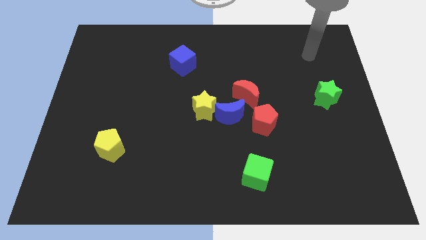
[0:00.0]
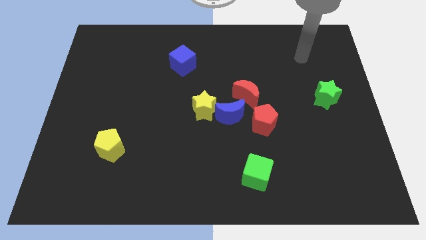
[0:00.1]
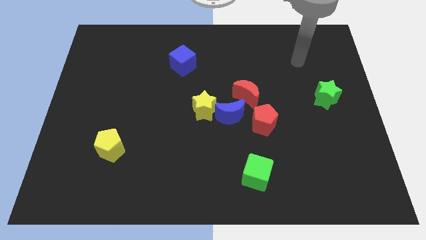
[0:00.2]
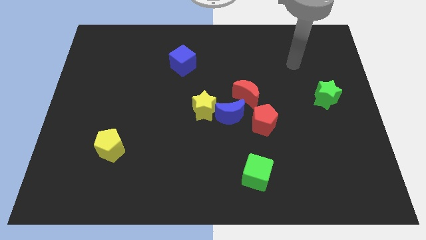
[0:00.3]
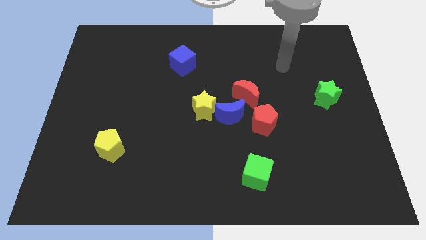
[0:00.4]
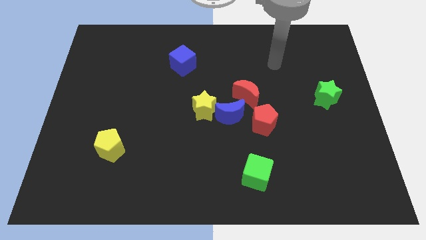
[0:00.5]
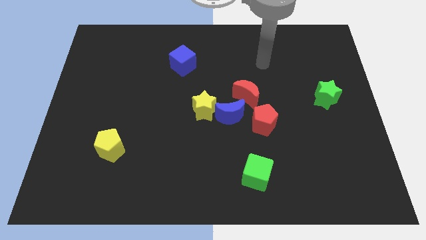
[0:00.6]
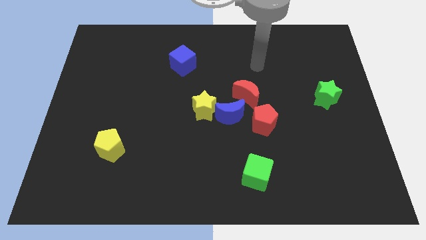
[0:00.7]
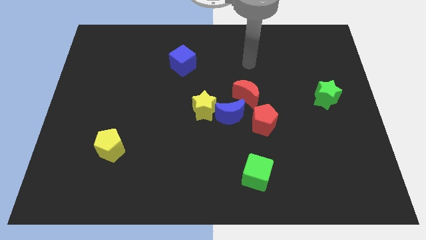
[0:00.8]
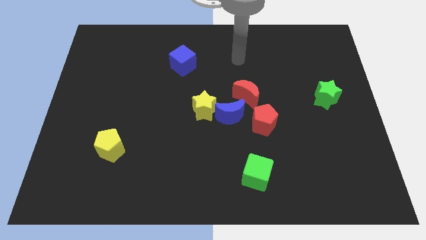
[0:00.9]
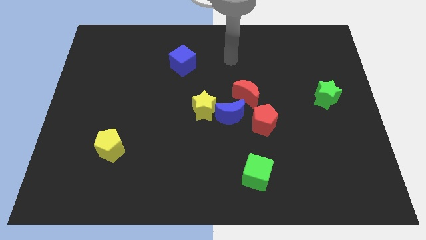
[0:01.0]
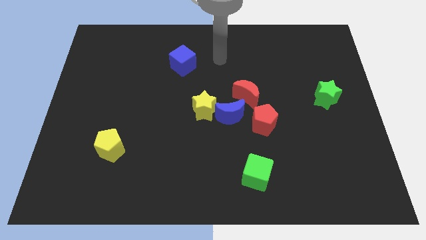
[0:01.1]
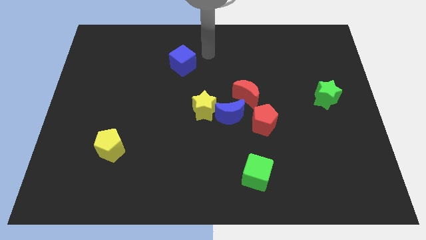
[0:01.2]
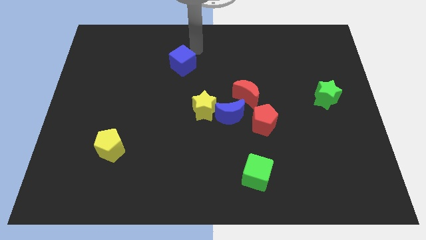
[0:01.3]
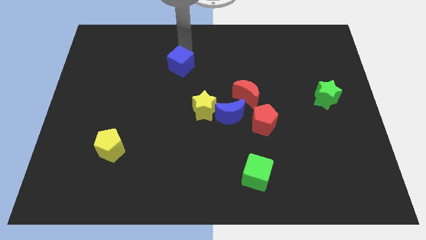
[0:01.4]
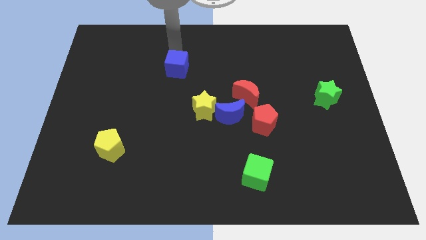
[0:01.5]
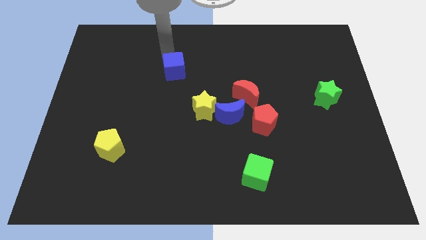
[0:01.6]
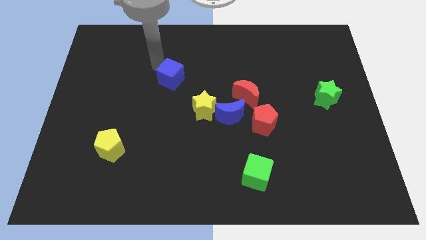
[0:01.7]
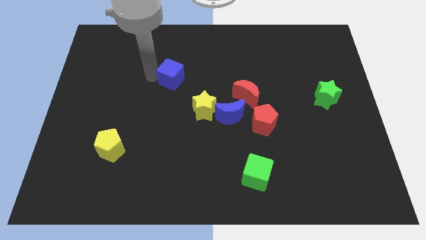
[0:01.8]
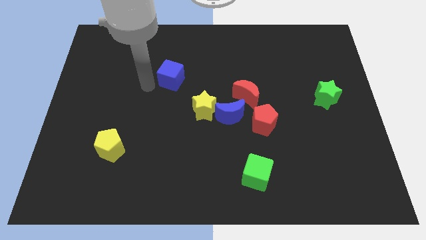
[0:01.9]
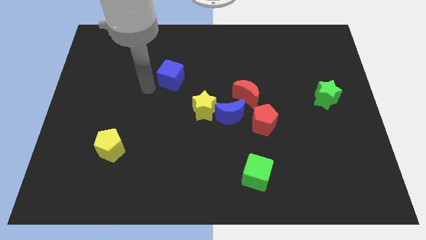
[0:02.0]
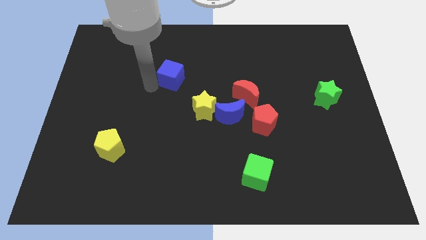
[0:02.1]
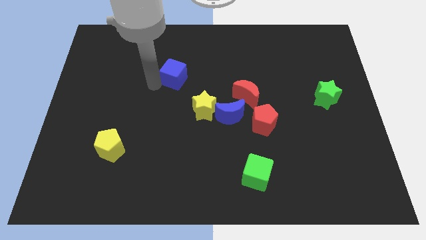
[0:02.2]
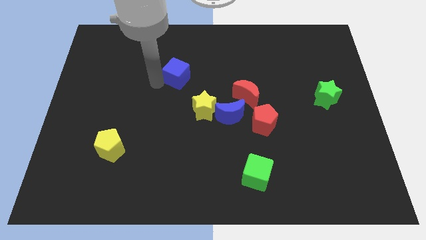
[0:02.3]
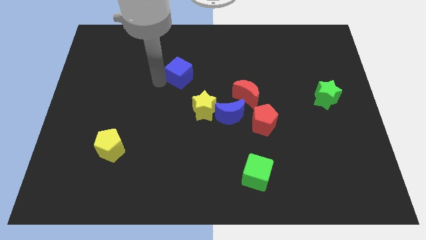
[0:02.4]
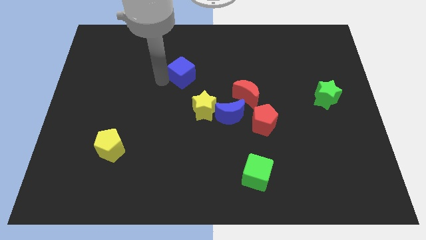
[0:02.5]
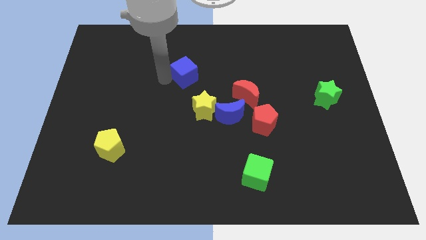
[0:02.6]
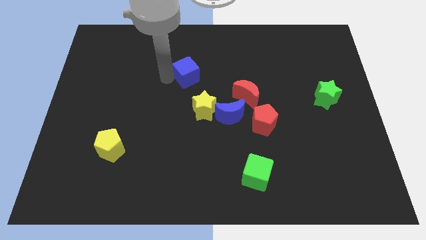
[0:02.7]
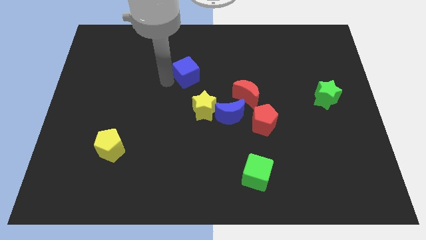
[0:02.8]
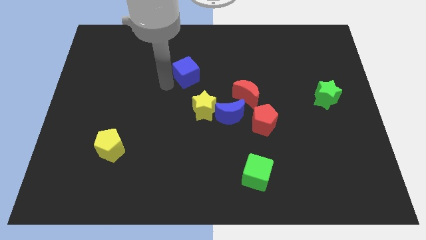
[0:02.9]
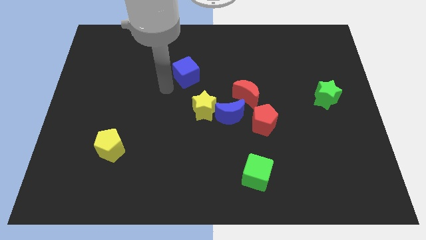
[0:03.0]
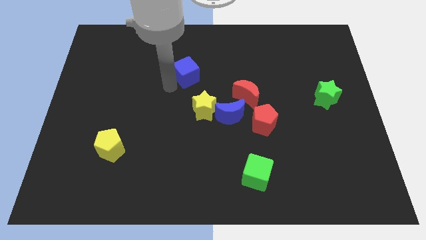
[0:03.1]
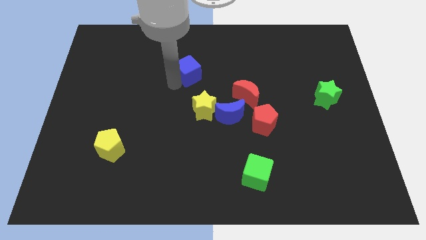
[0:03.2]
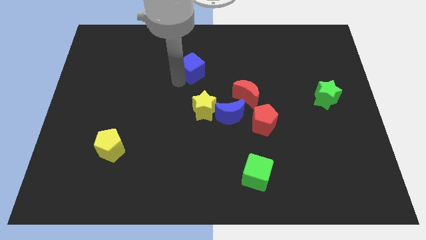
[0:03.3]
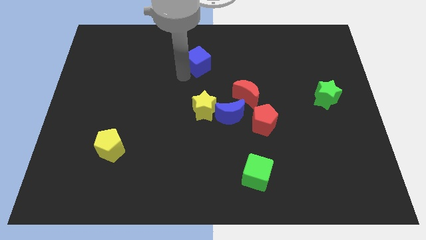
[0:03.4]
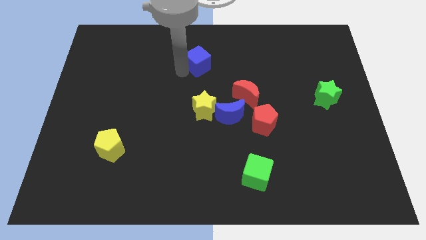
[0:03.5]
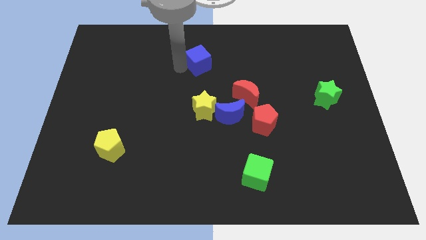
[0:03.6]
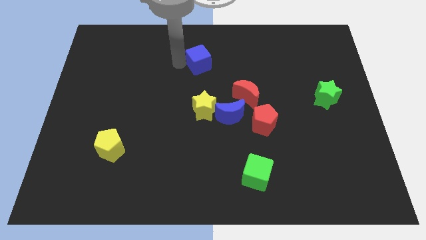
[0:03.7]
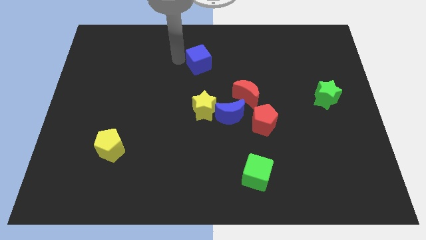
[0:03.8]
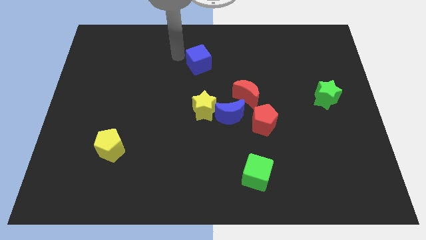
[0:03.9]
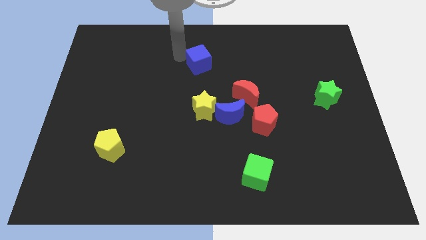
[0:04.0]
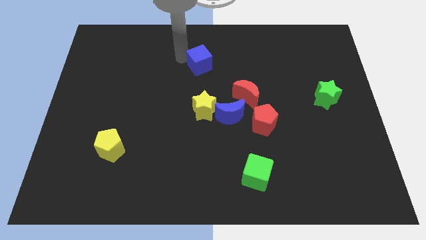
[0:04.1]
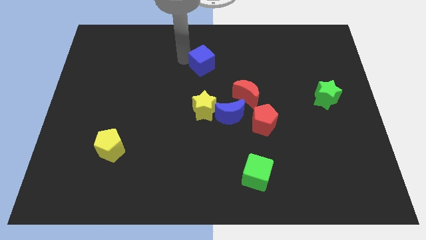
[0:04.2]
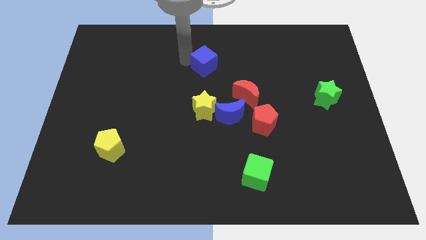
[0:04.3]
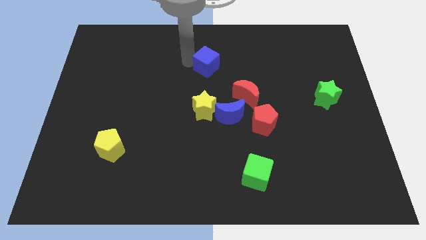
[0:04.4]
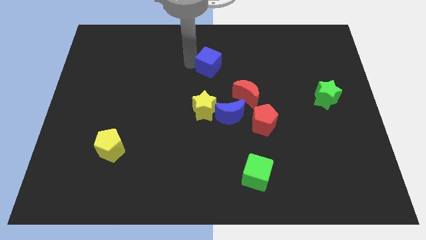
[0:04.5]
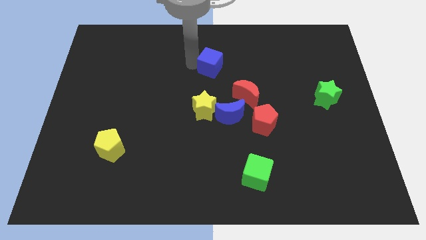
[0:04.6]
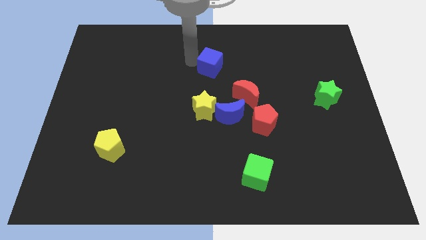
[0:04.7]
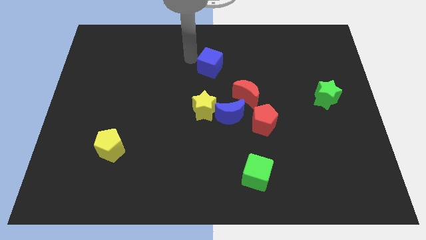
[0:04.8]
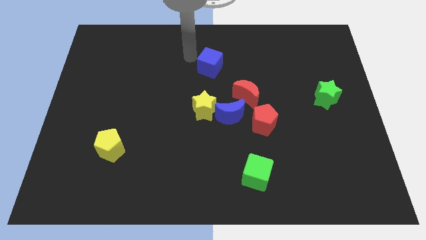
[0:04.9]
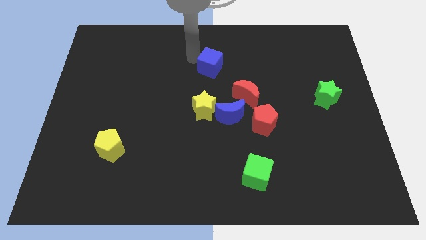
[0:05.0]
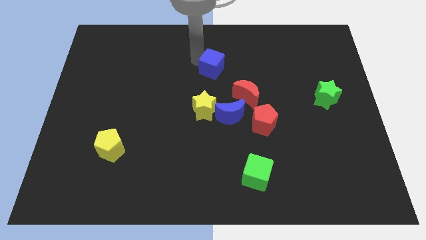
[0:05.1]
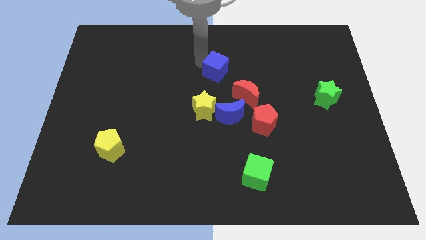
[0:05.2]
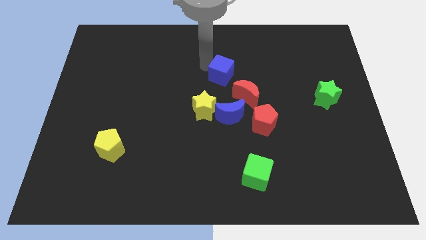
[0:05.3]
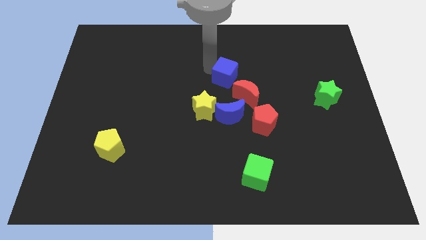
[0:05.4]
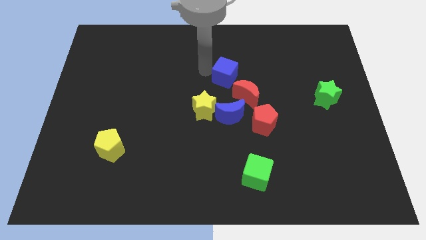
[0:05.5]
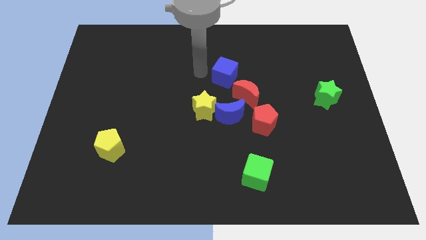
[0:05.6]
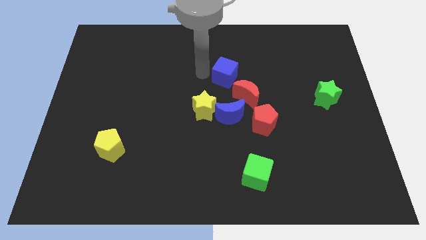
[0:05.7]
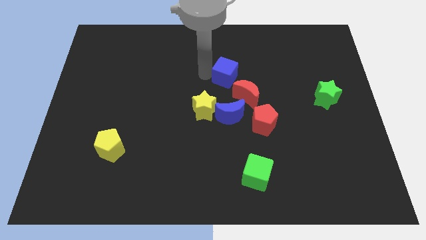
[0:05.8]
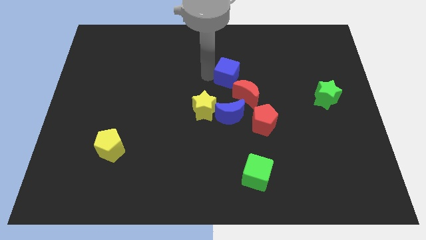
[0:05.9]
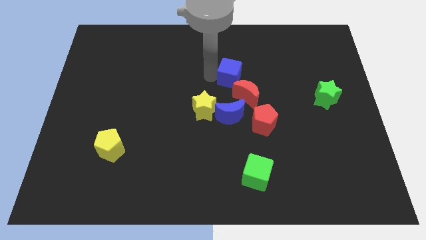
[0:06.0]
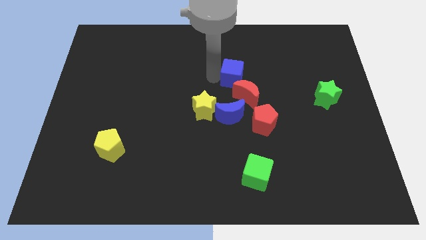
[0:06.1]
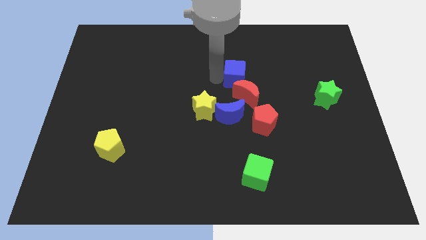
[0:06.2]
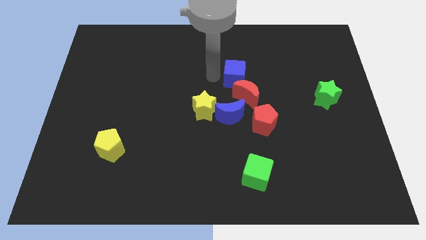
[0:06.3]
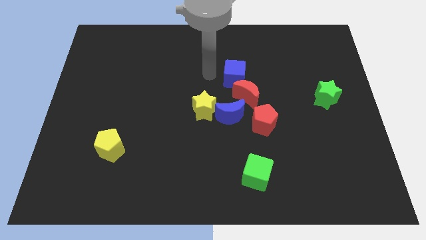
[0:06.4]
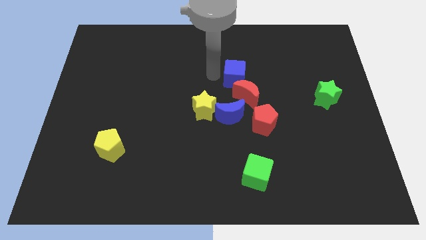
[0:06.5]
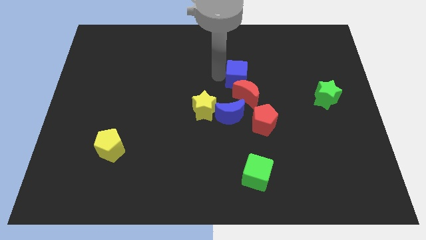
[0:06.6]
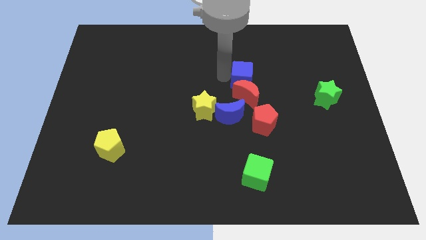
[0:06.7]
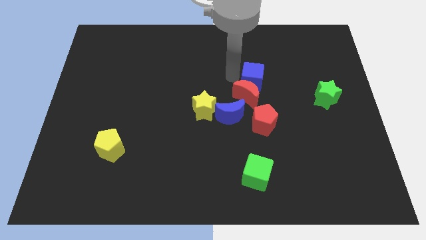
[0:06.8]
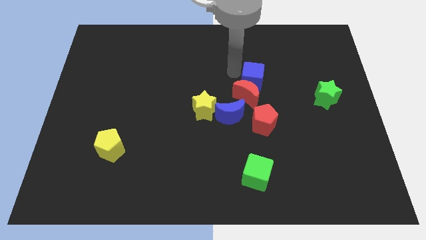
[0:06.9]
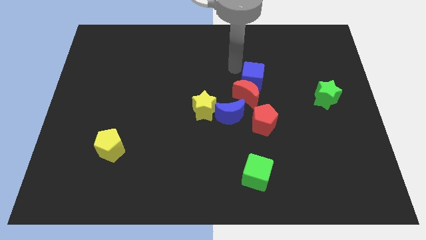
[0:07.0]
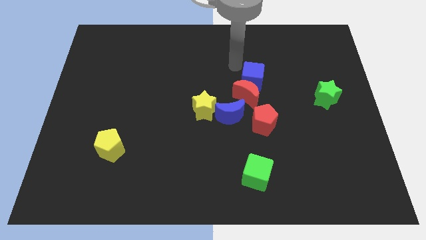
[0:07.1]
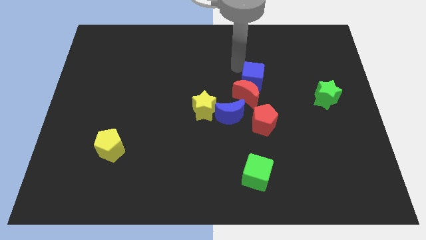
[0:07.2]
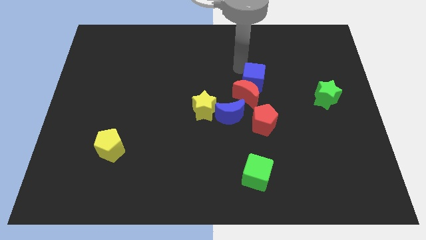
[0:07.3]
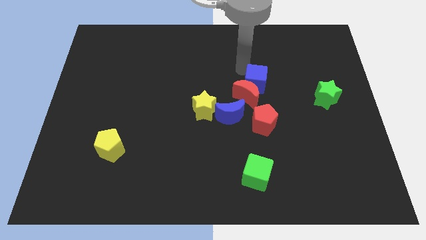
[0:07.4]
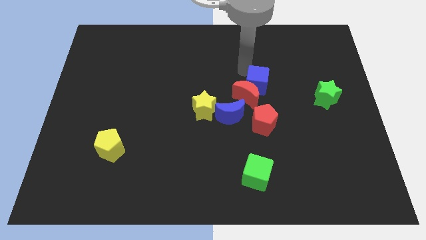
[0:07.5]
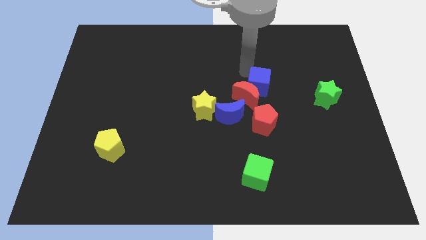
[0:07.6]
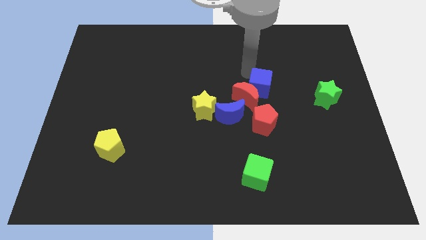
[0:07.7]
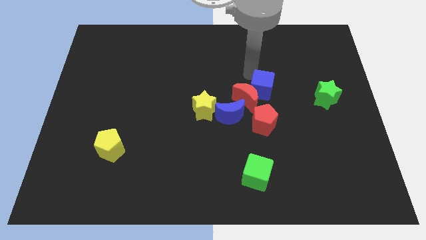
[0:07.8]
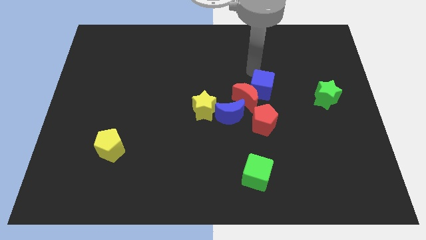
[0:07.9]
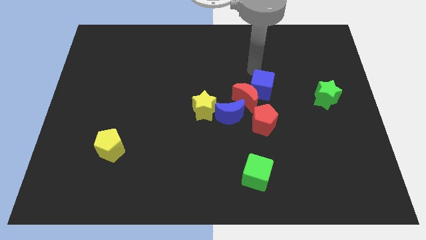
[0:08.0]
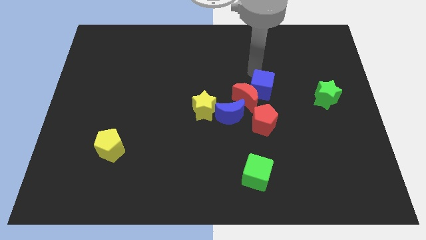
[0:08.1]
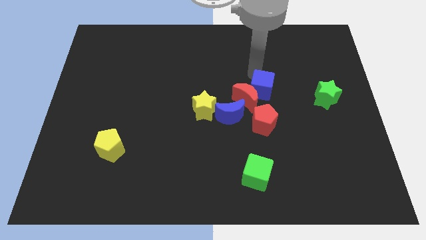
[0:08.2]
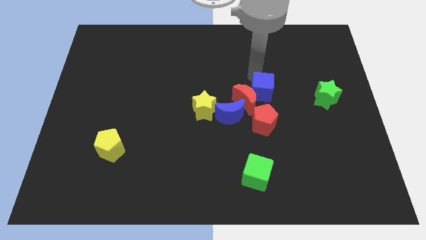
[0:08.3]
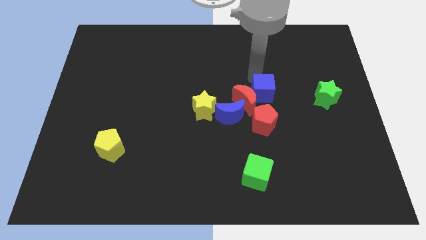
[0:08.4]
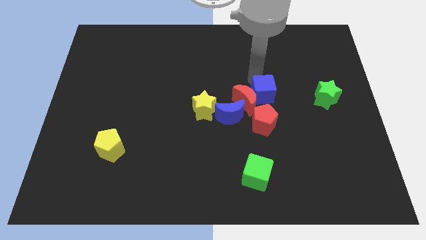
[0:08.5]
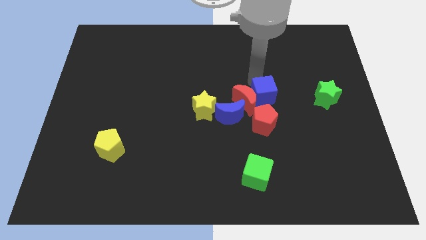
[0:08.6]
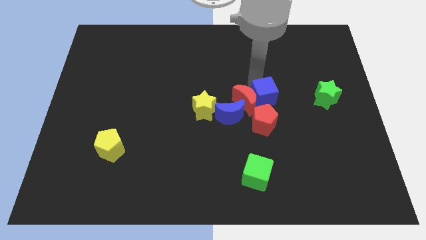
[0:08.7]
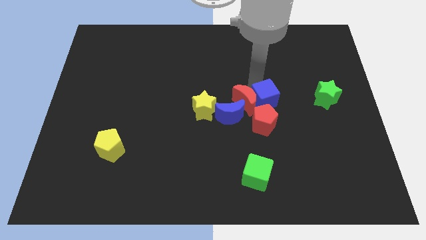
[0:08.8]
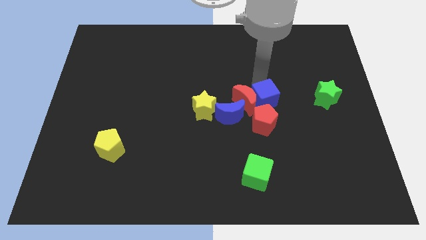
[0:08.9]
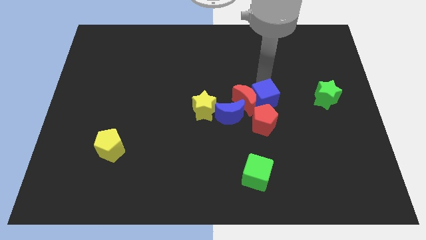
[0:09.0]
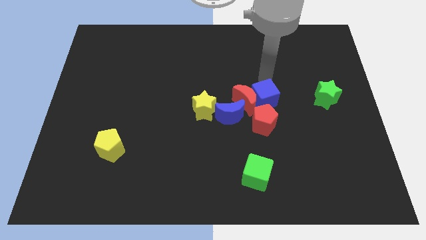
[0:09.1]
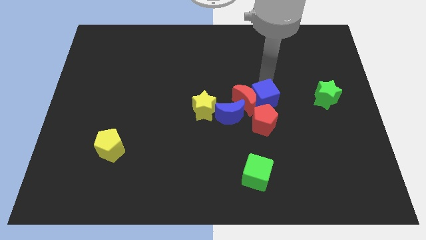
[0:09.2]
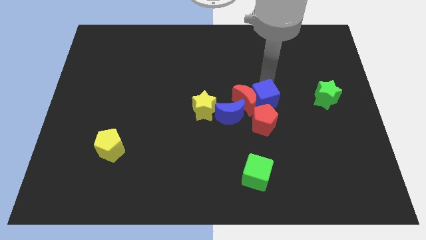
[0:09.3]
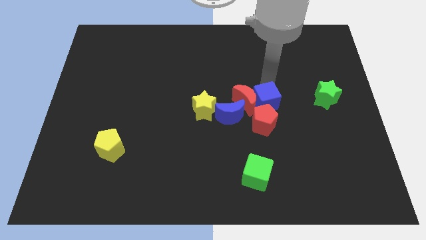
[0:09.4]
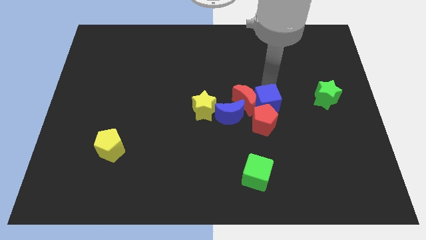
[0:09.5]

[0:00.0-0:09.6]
put the blue cube next to the red pentagon
